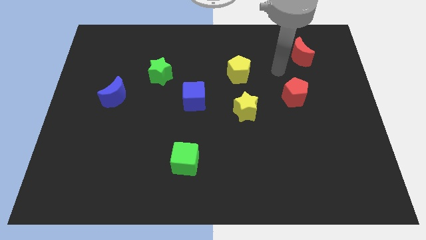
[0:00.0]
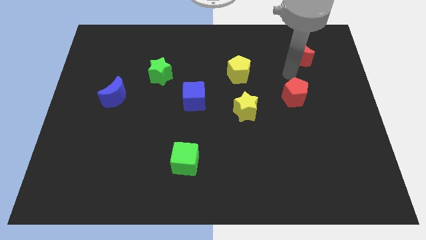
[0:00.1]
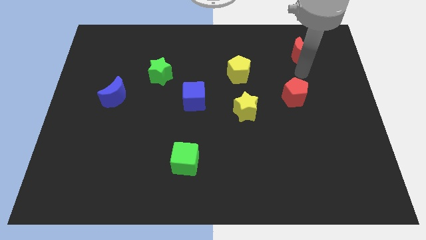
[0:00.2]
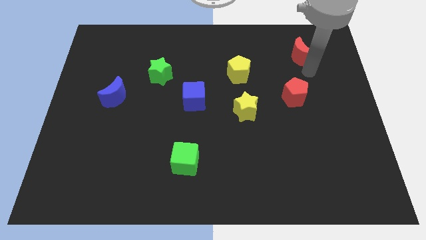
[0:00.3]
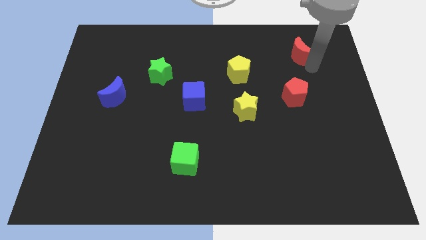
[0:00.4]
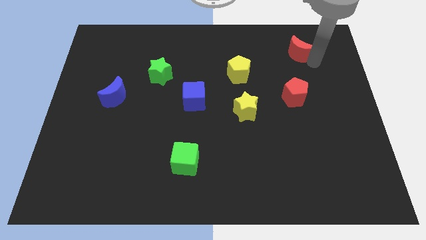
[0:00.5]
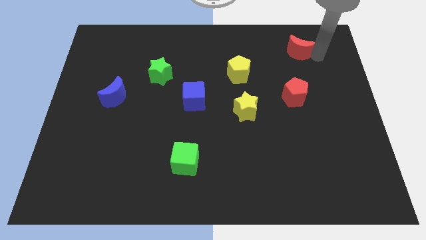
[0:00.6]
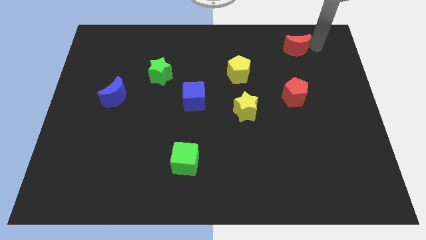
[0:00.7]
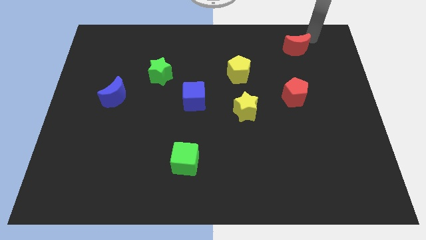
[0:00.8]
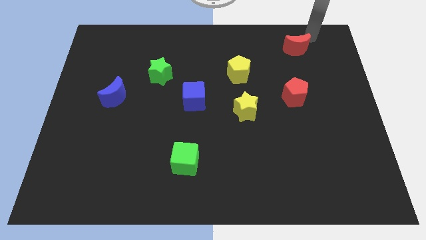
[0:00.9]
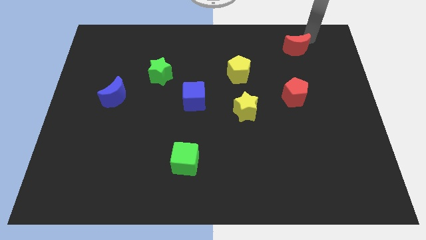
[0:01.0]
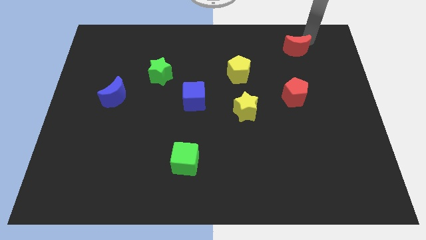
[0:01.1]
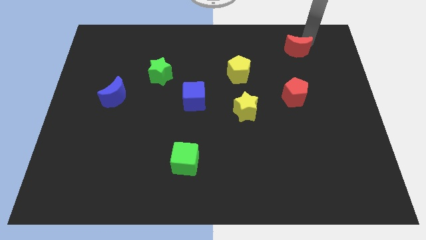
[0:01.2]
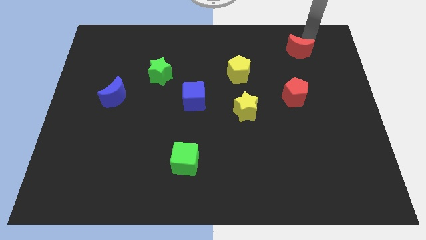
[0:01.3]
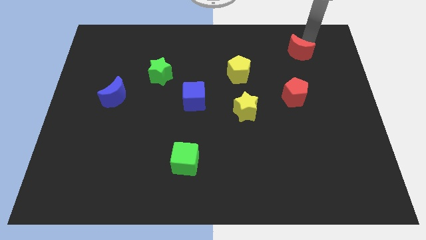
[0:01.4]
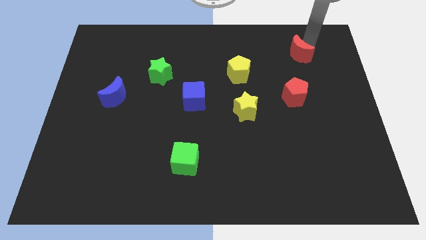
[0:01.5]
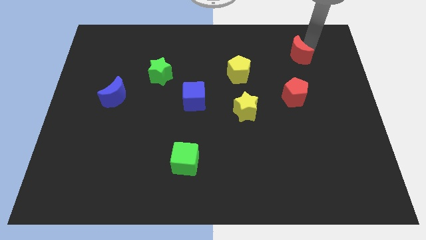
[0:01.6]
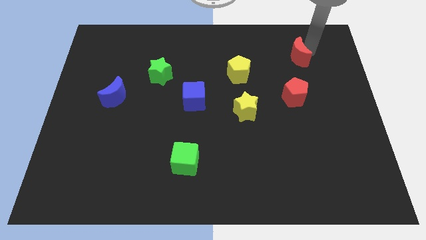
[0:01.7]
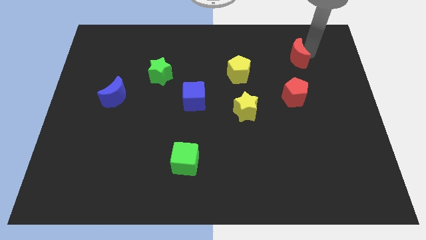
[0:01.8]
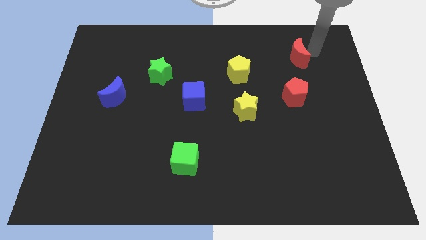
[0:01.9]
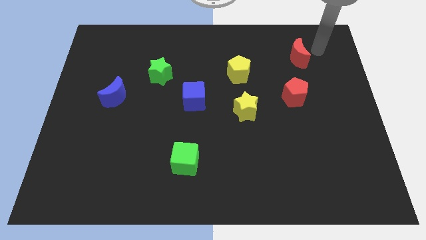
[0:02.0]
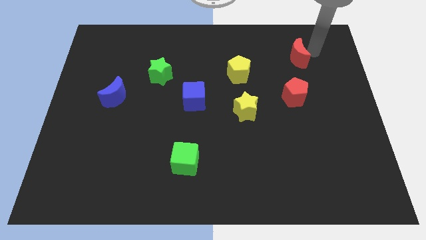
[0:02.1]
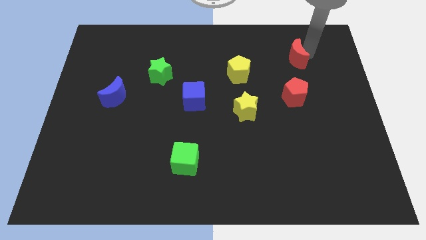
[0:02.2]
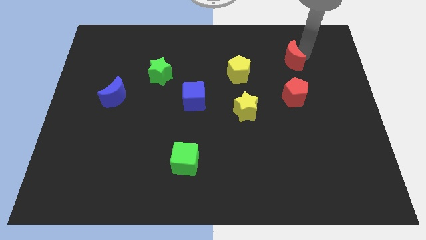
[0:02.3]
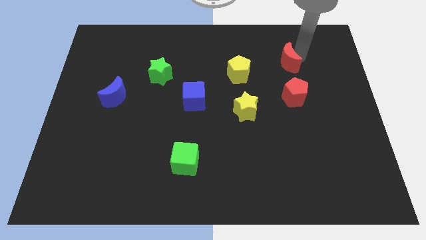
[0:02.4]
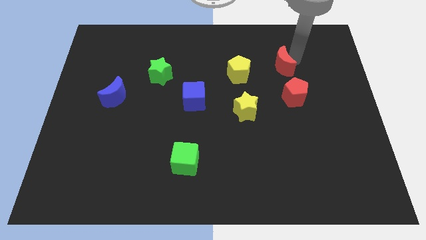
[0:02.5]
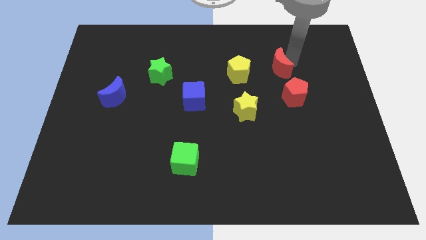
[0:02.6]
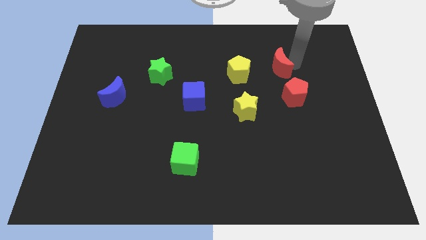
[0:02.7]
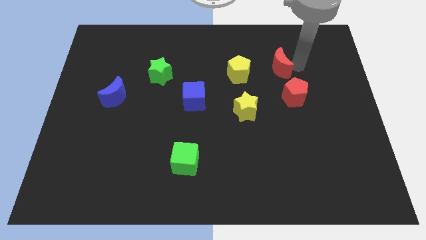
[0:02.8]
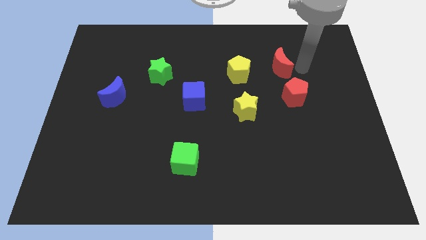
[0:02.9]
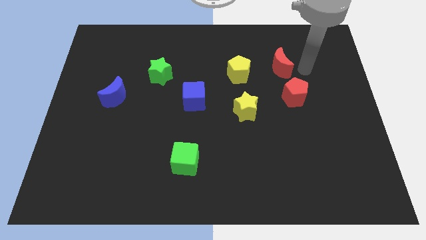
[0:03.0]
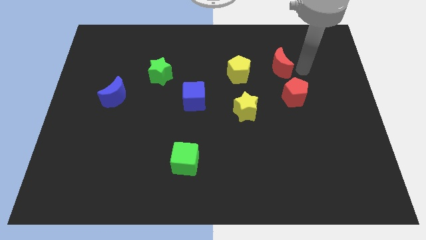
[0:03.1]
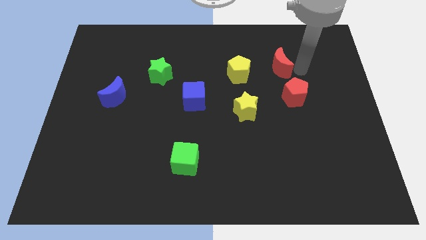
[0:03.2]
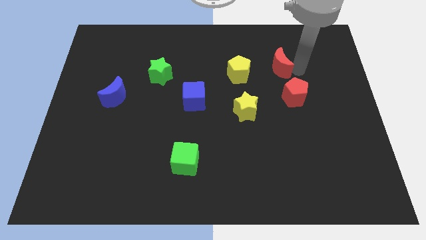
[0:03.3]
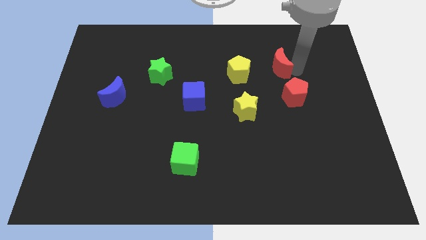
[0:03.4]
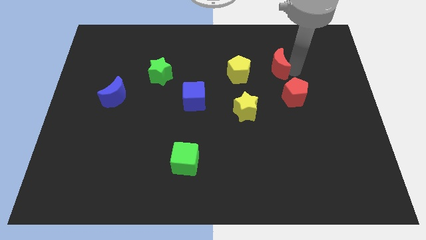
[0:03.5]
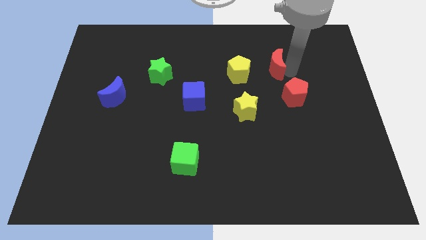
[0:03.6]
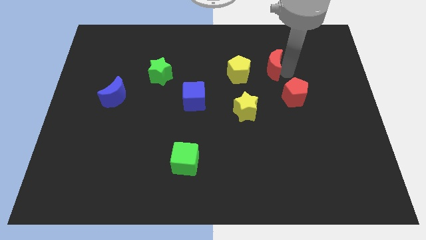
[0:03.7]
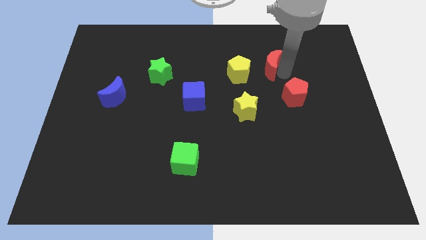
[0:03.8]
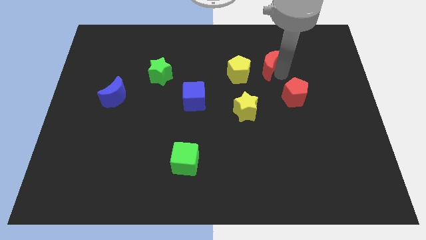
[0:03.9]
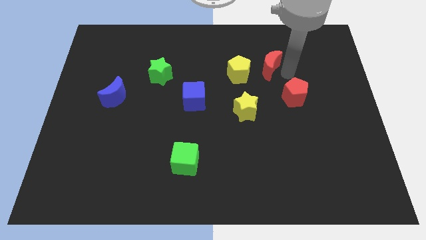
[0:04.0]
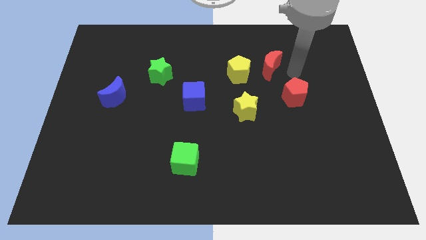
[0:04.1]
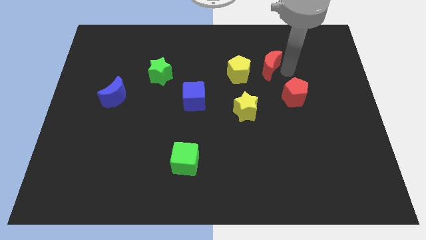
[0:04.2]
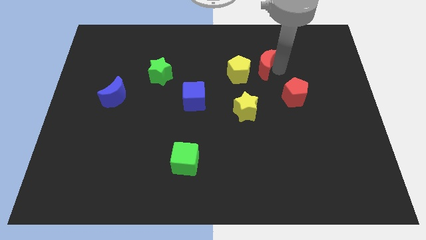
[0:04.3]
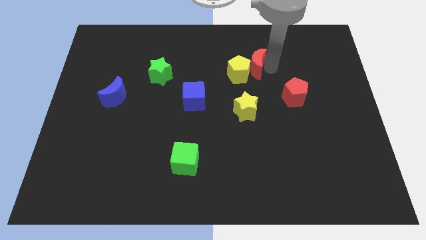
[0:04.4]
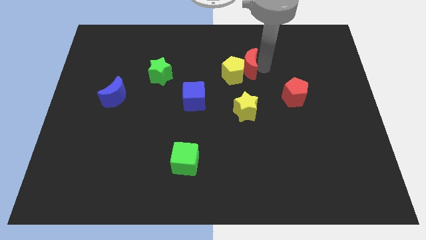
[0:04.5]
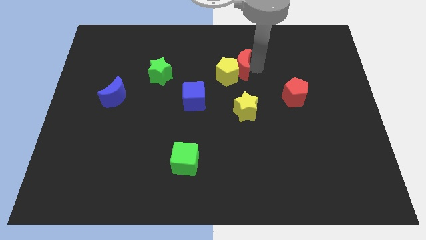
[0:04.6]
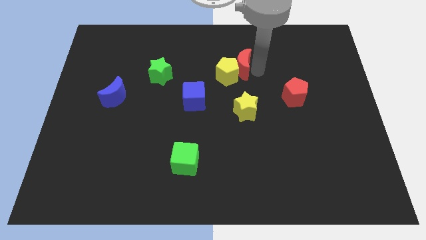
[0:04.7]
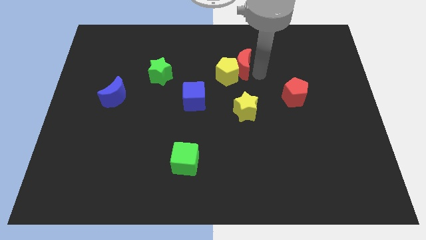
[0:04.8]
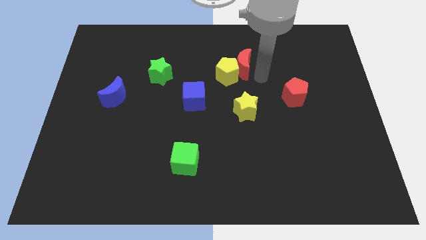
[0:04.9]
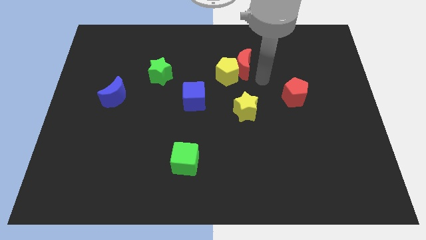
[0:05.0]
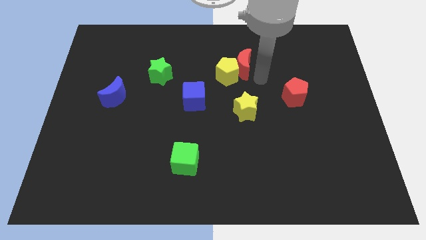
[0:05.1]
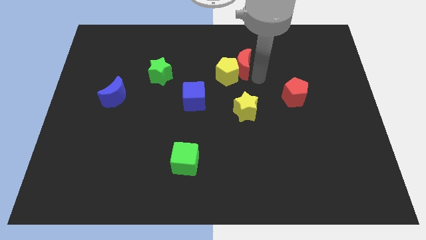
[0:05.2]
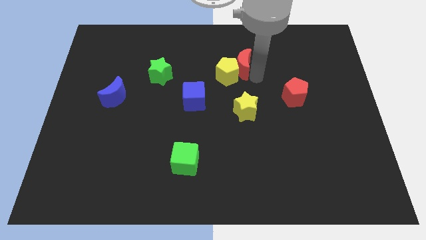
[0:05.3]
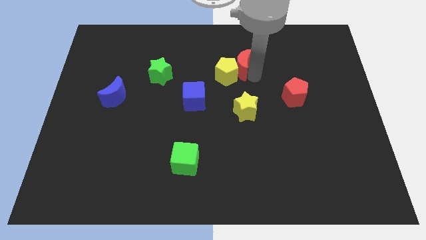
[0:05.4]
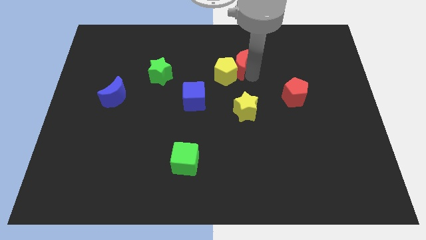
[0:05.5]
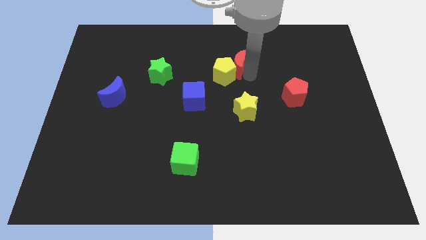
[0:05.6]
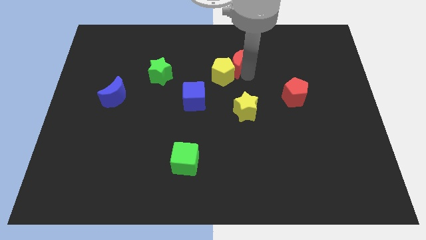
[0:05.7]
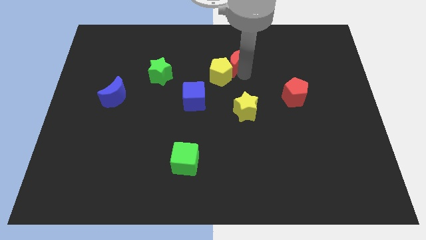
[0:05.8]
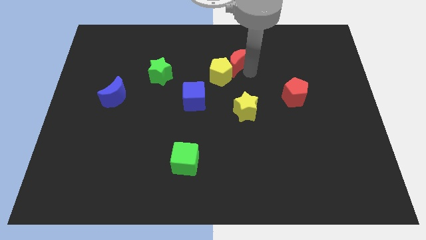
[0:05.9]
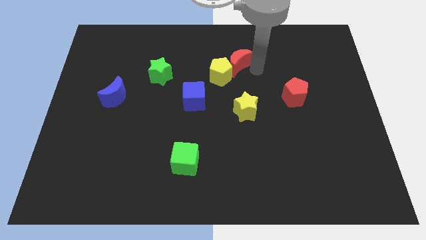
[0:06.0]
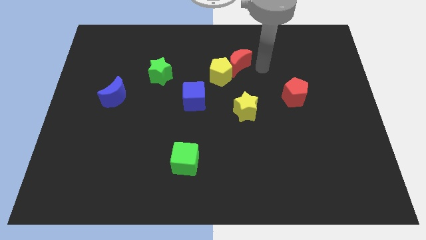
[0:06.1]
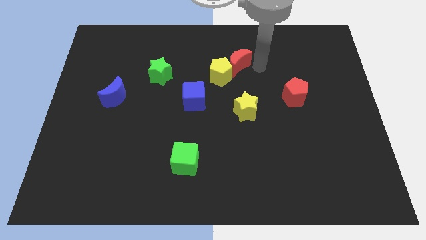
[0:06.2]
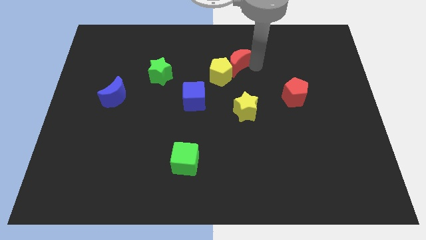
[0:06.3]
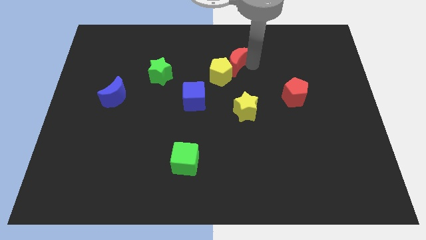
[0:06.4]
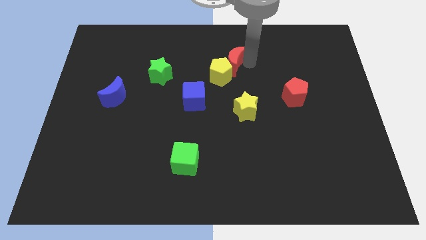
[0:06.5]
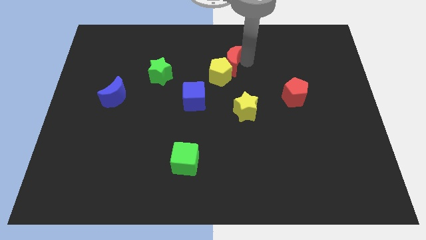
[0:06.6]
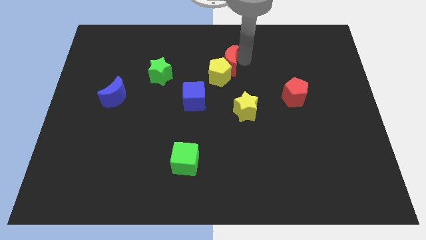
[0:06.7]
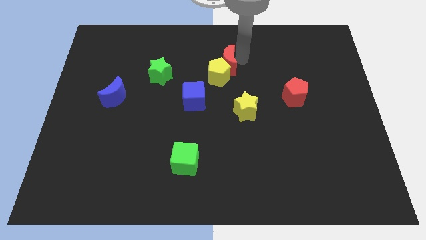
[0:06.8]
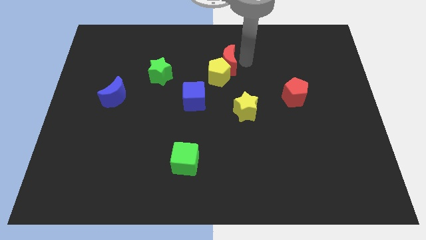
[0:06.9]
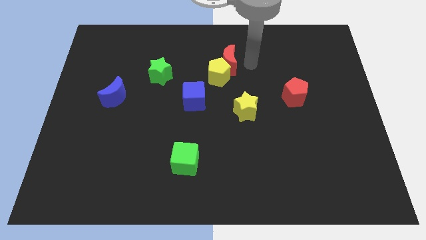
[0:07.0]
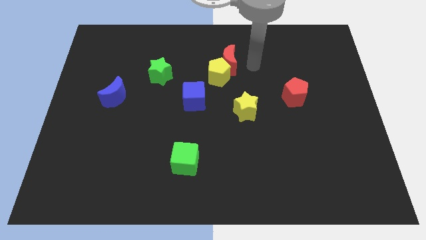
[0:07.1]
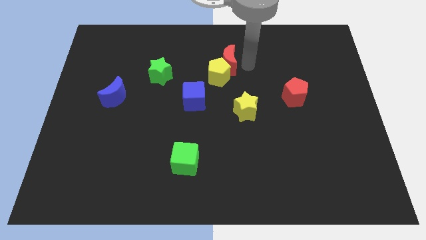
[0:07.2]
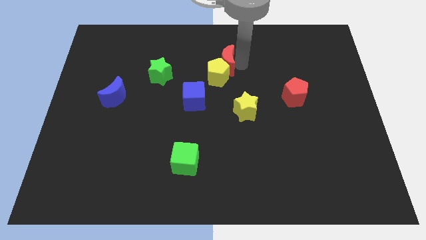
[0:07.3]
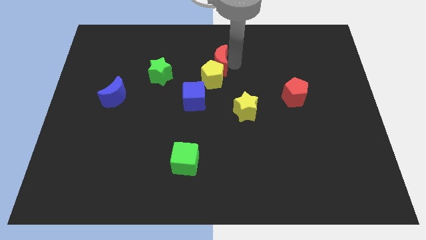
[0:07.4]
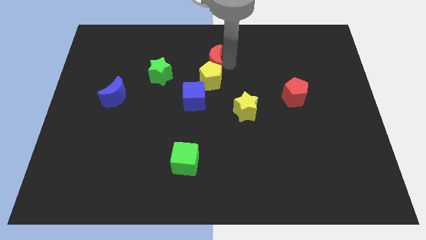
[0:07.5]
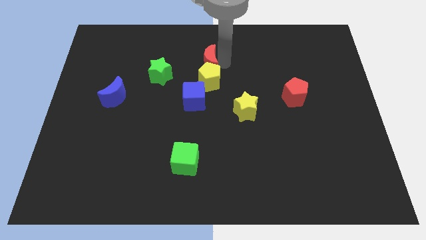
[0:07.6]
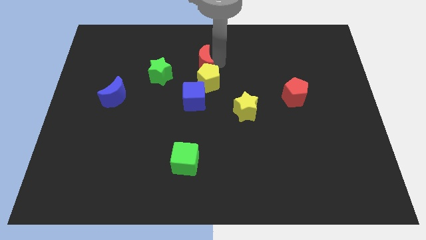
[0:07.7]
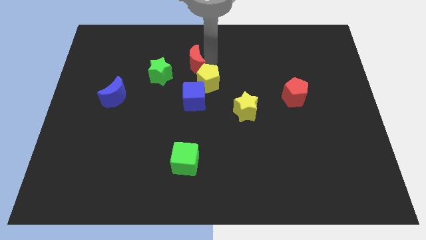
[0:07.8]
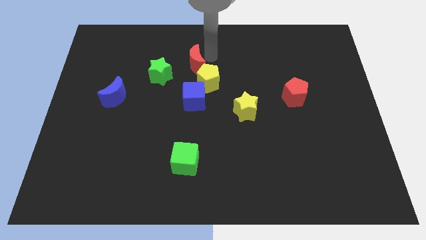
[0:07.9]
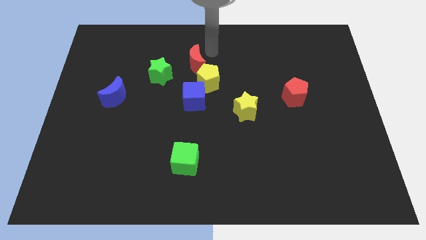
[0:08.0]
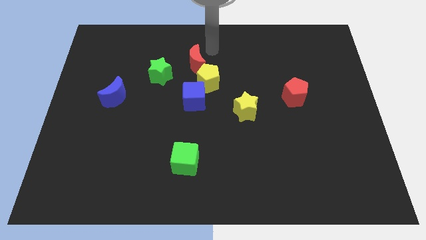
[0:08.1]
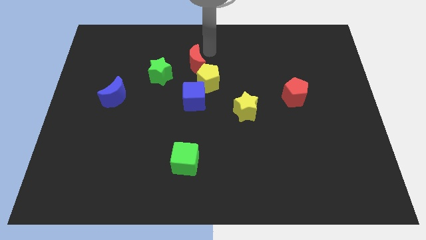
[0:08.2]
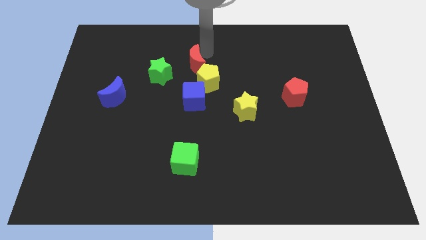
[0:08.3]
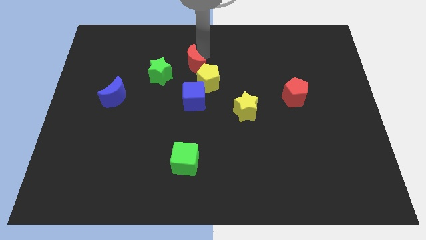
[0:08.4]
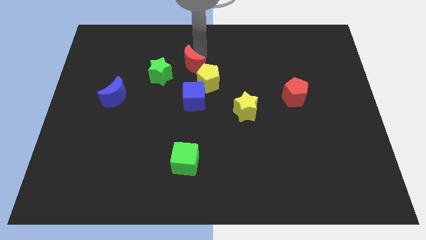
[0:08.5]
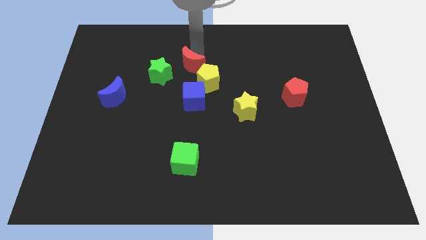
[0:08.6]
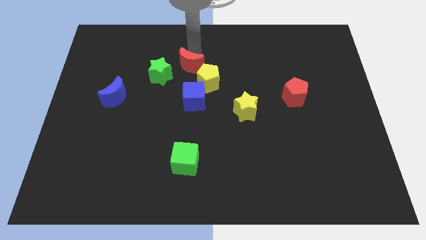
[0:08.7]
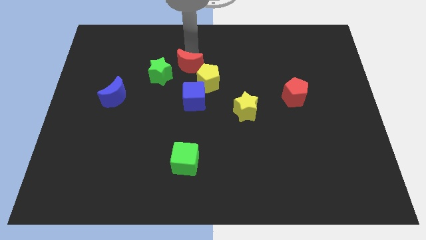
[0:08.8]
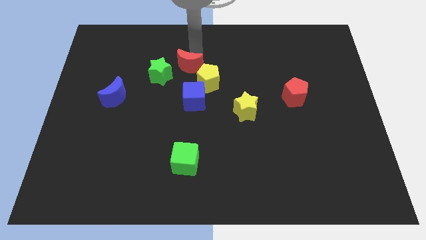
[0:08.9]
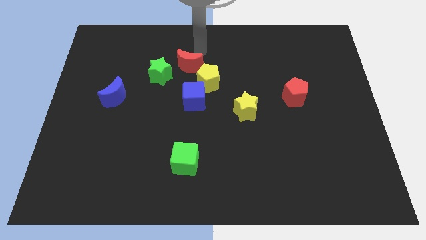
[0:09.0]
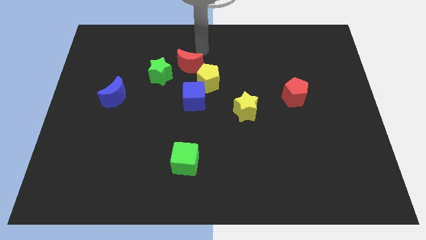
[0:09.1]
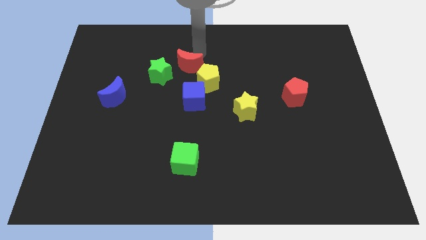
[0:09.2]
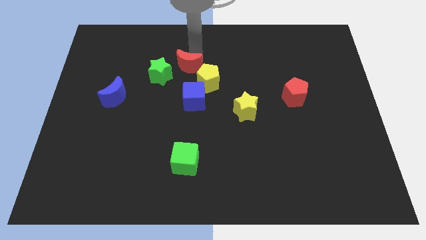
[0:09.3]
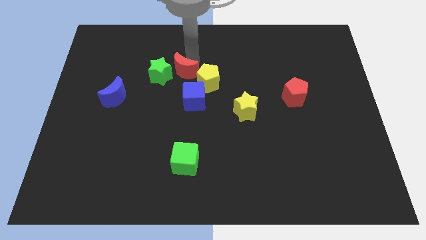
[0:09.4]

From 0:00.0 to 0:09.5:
slide the red moon to the top left of the blue cube
